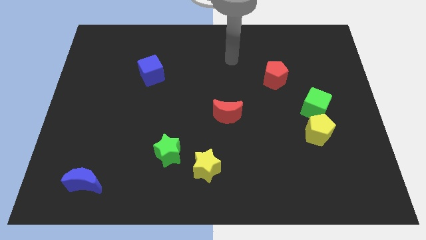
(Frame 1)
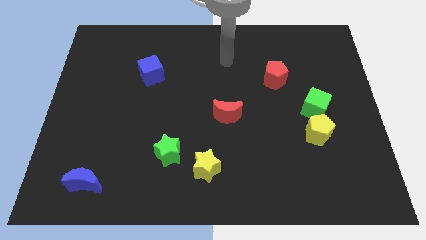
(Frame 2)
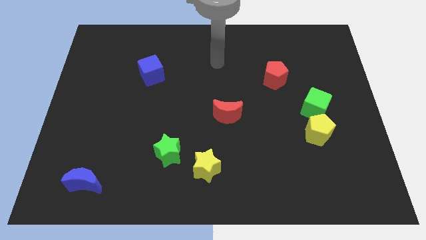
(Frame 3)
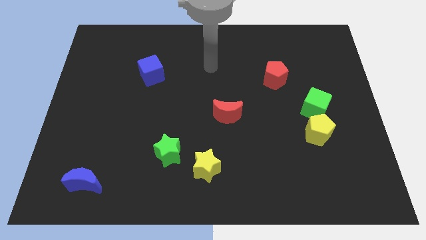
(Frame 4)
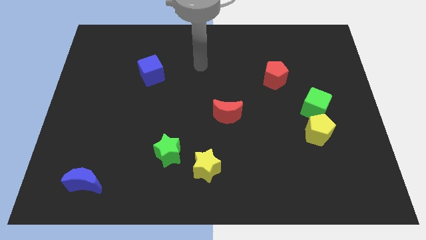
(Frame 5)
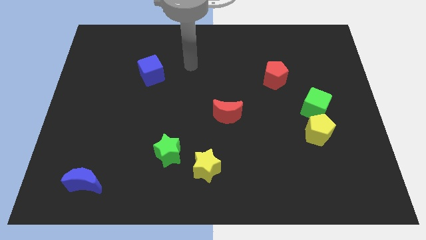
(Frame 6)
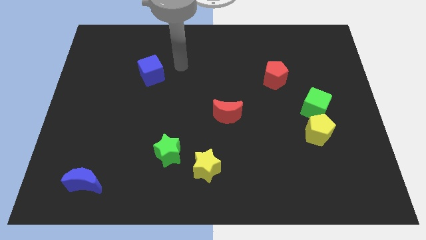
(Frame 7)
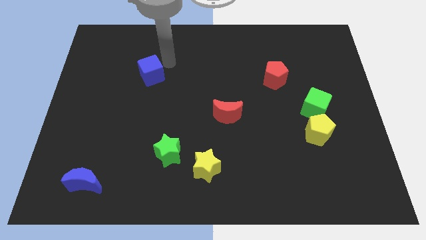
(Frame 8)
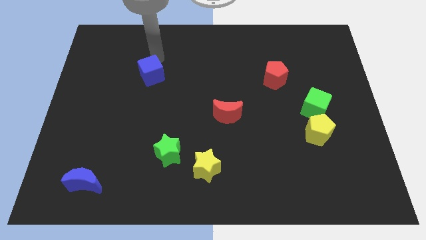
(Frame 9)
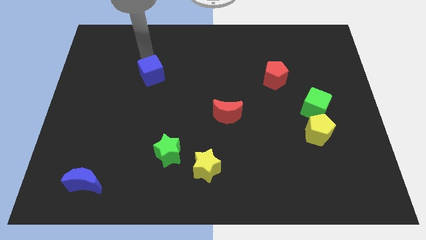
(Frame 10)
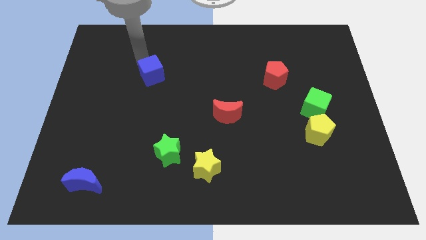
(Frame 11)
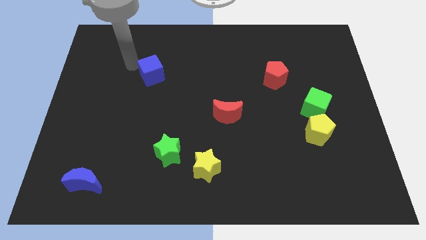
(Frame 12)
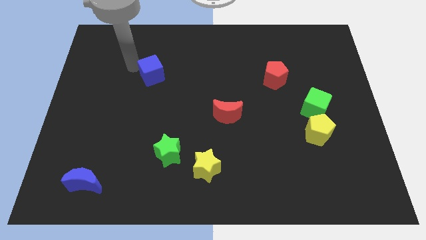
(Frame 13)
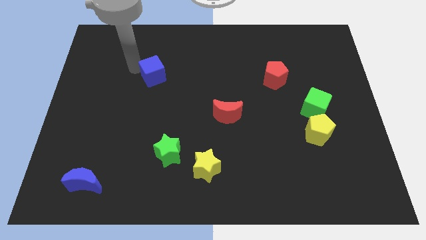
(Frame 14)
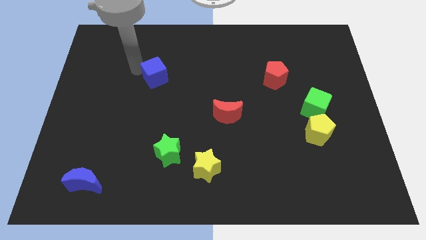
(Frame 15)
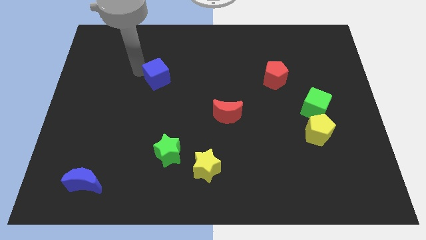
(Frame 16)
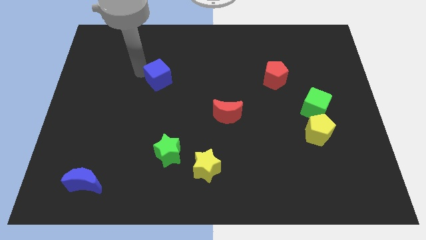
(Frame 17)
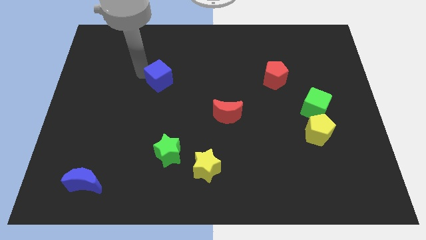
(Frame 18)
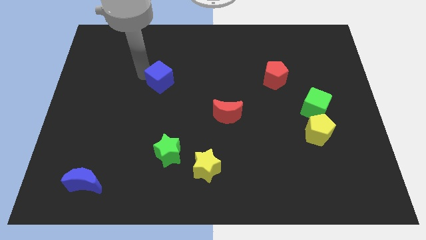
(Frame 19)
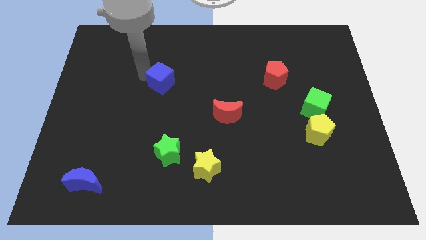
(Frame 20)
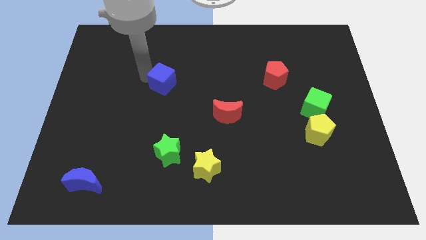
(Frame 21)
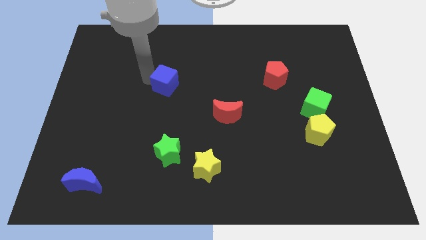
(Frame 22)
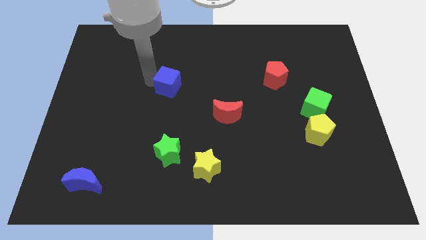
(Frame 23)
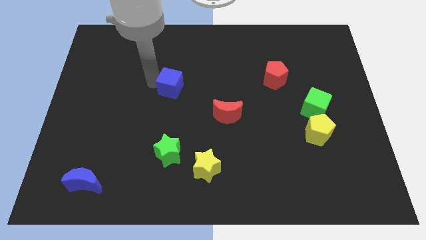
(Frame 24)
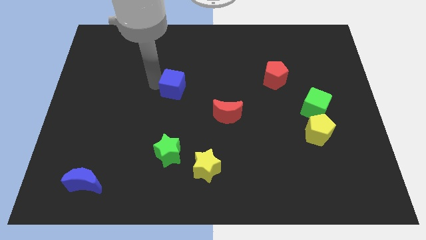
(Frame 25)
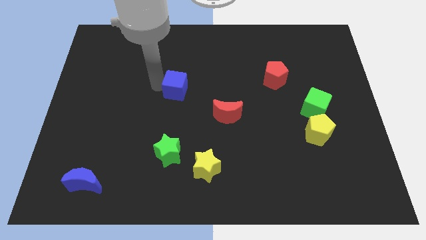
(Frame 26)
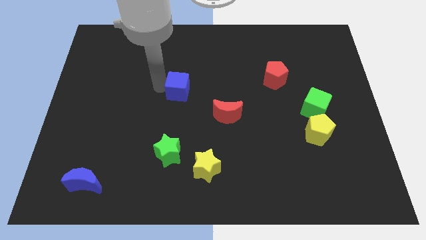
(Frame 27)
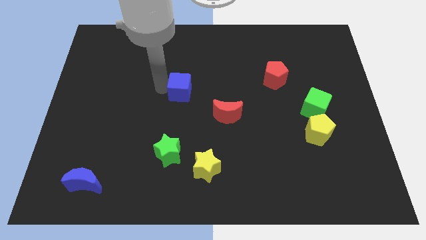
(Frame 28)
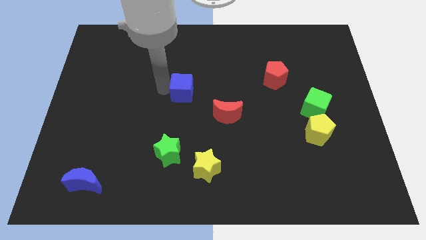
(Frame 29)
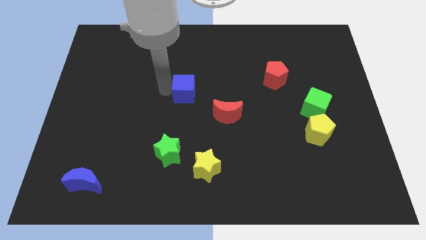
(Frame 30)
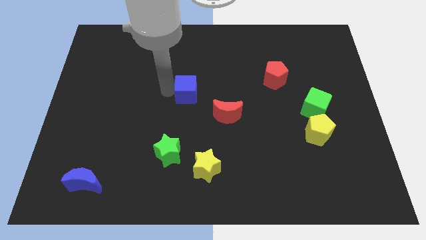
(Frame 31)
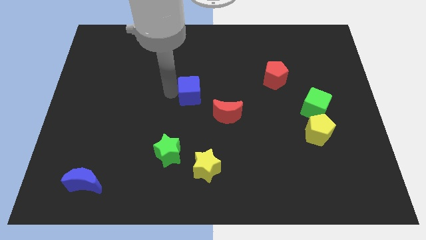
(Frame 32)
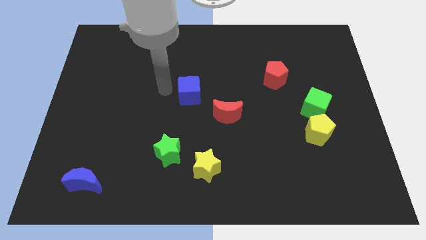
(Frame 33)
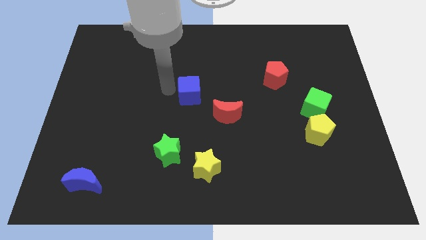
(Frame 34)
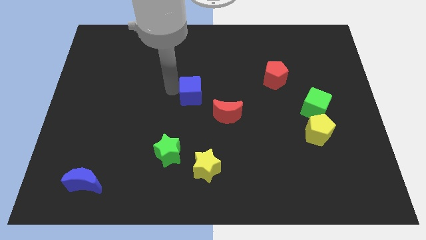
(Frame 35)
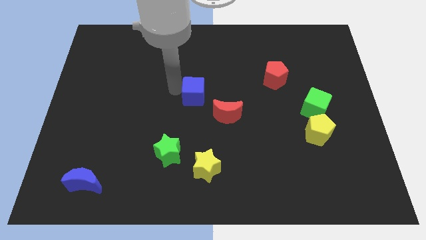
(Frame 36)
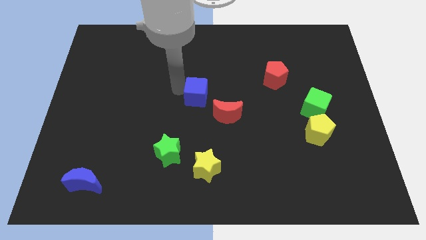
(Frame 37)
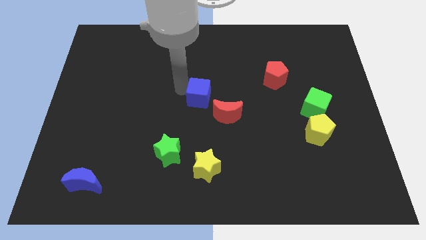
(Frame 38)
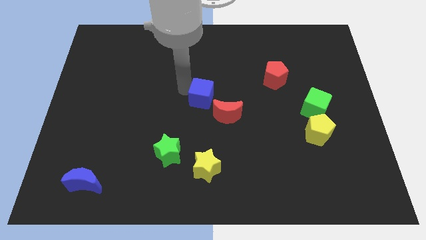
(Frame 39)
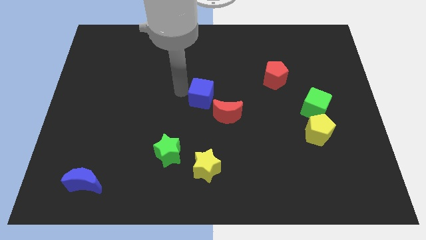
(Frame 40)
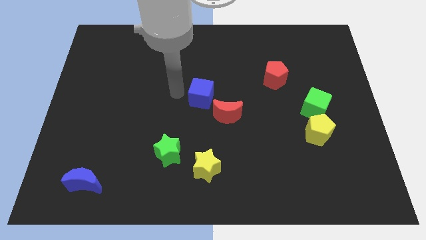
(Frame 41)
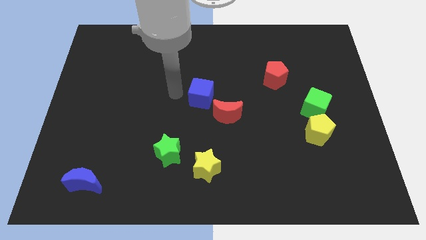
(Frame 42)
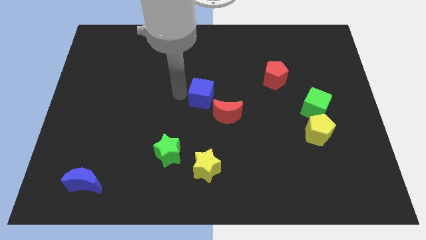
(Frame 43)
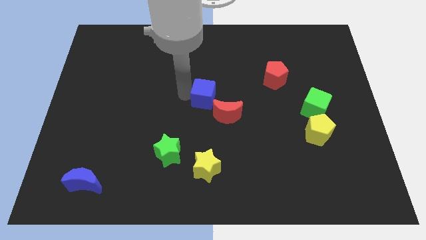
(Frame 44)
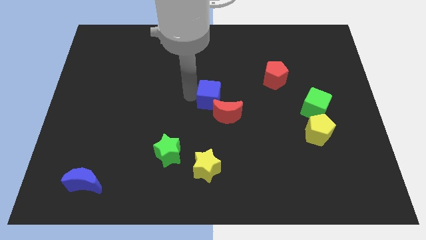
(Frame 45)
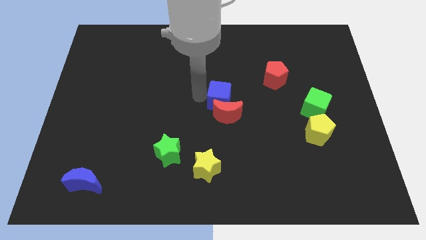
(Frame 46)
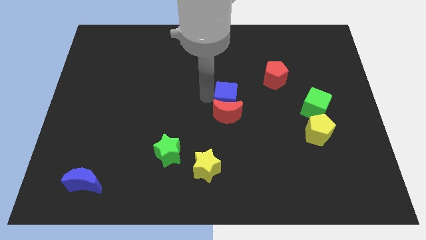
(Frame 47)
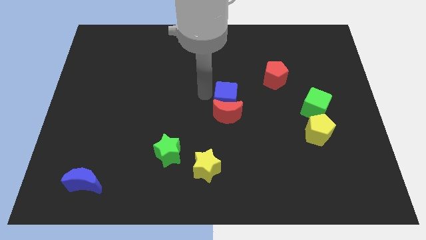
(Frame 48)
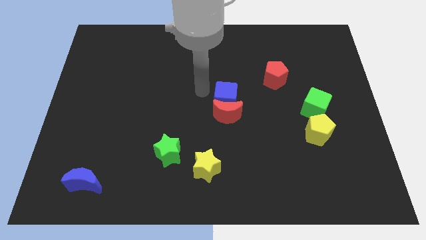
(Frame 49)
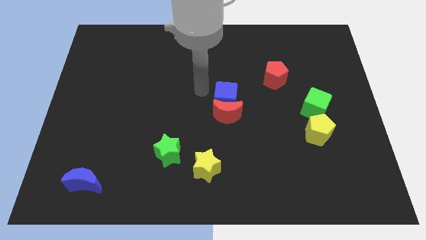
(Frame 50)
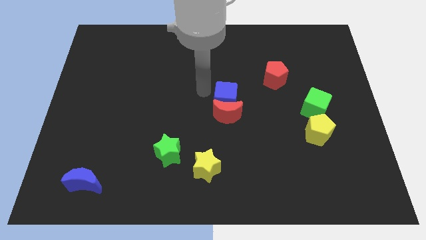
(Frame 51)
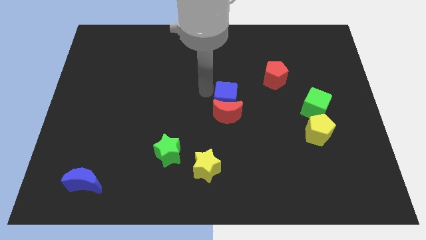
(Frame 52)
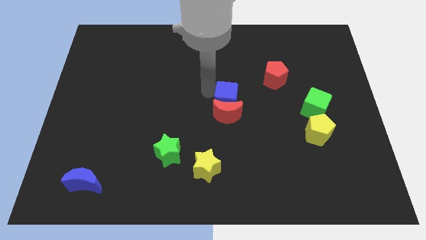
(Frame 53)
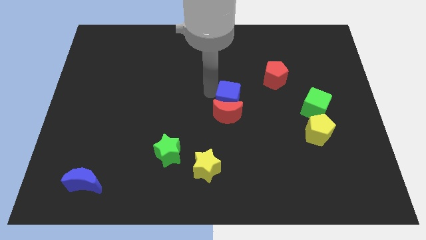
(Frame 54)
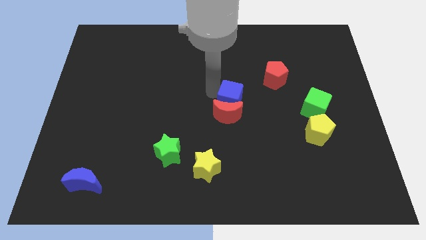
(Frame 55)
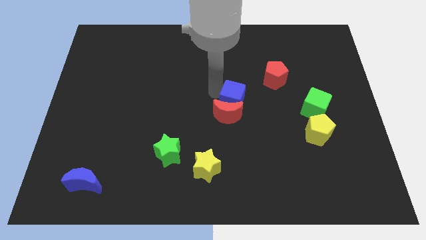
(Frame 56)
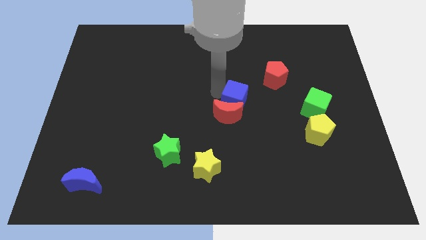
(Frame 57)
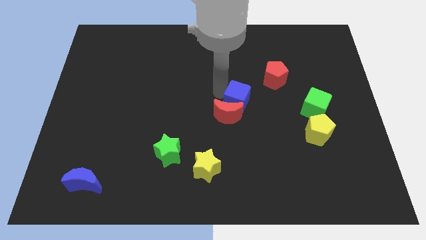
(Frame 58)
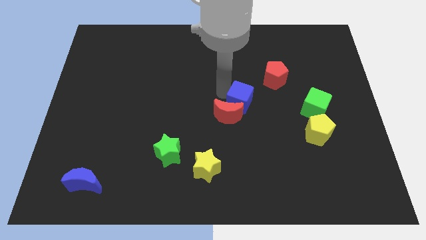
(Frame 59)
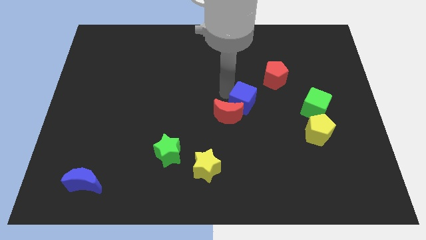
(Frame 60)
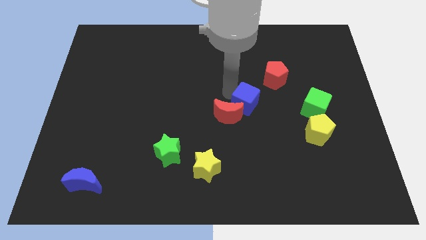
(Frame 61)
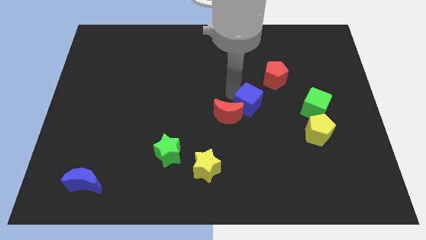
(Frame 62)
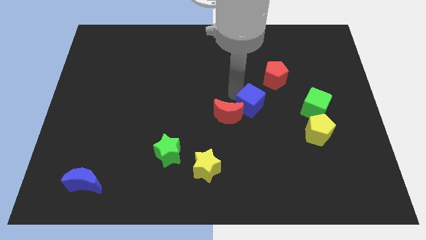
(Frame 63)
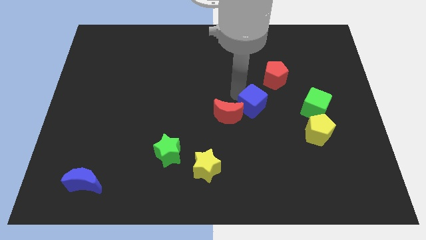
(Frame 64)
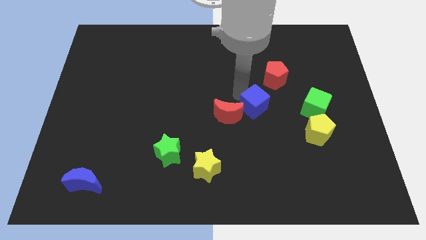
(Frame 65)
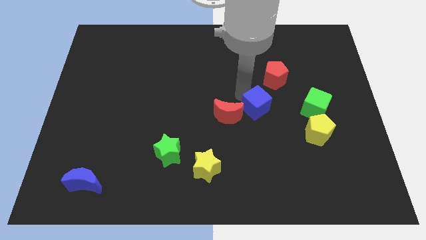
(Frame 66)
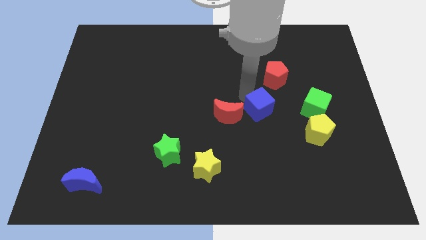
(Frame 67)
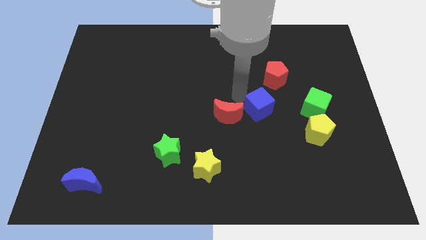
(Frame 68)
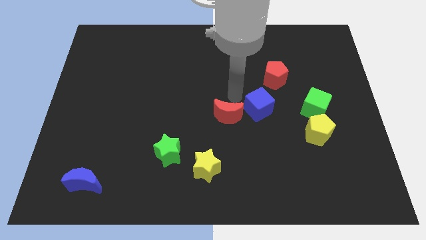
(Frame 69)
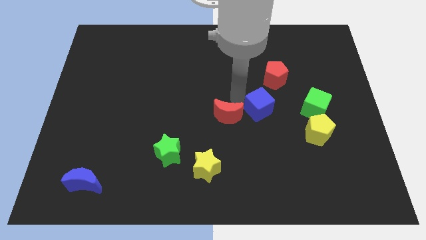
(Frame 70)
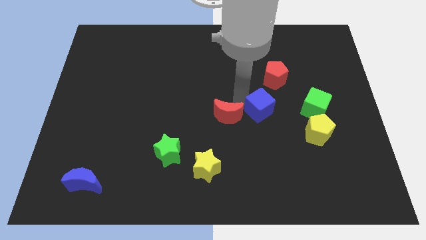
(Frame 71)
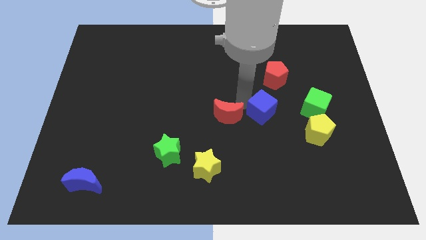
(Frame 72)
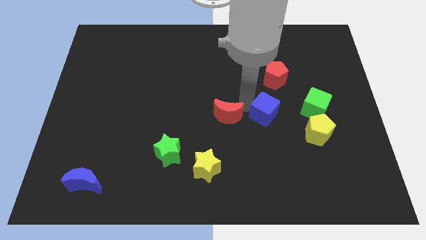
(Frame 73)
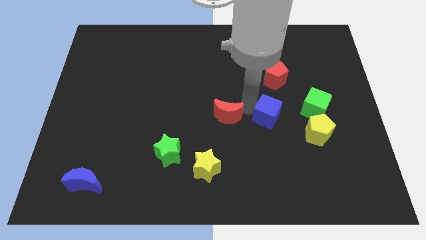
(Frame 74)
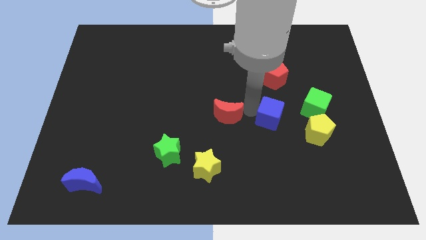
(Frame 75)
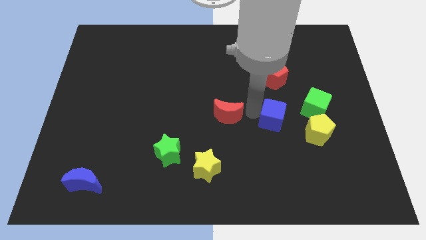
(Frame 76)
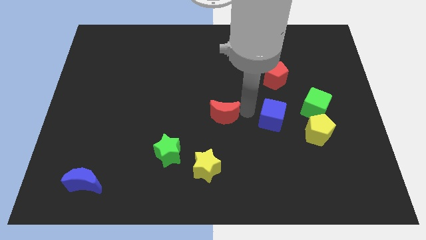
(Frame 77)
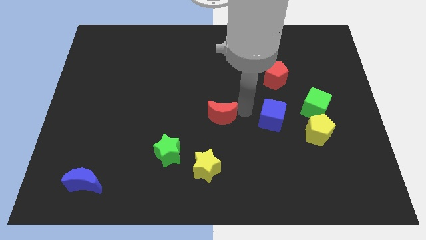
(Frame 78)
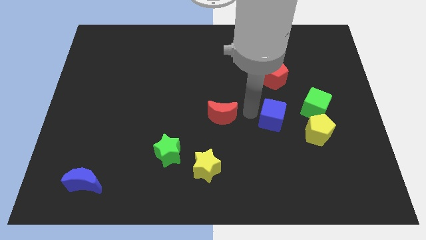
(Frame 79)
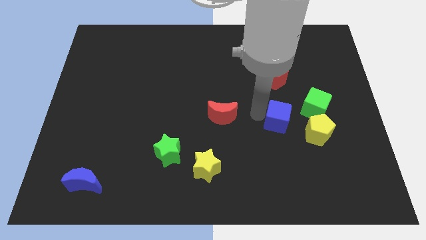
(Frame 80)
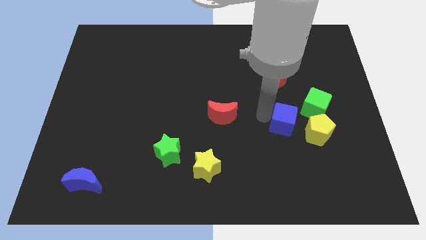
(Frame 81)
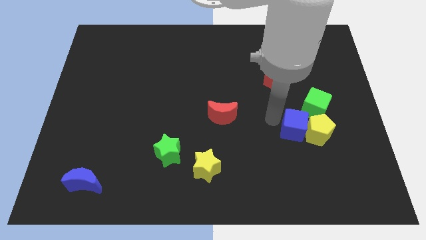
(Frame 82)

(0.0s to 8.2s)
put the blue cube towards the yellow pentagon
